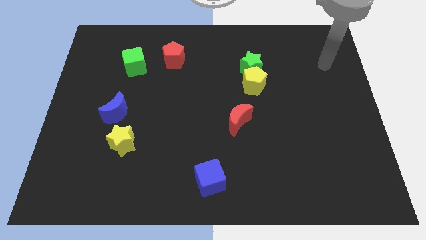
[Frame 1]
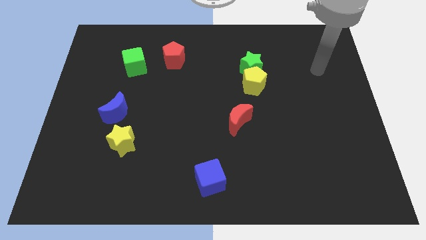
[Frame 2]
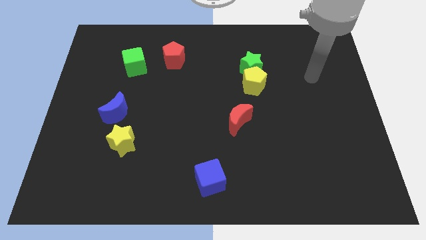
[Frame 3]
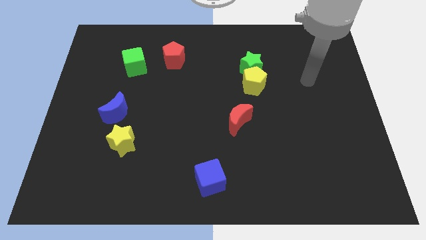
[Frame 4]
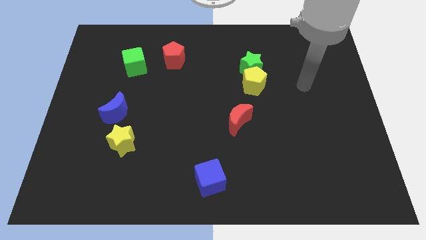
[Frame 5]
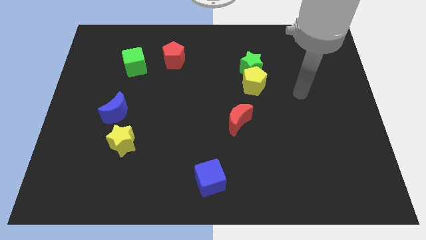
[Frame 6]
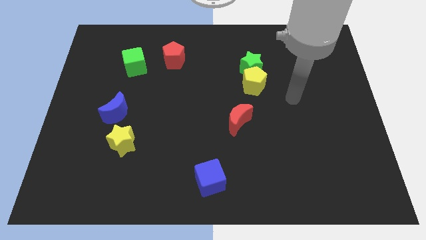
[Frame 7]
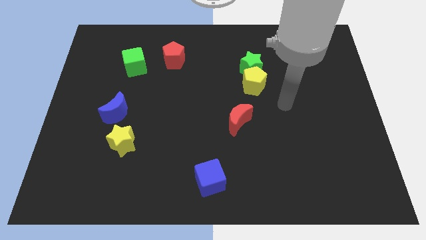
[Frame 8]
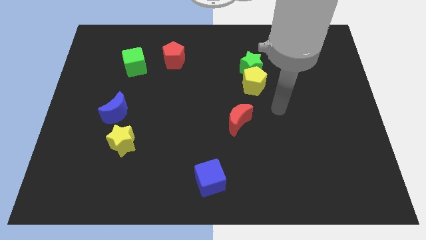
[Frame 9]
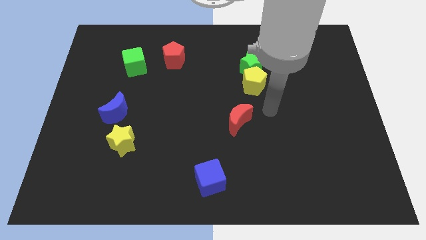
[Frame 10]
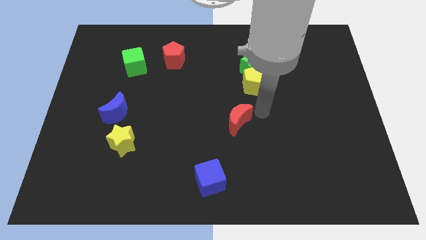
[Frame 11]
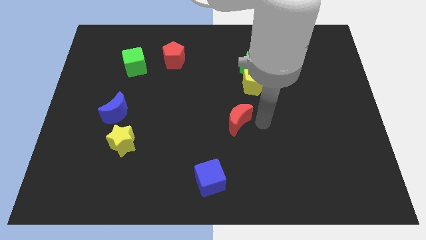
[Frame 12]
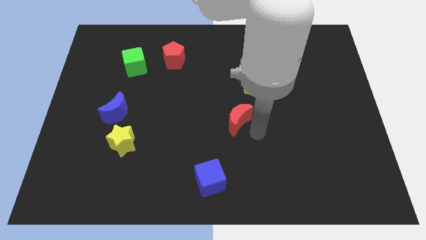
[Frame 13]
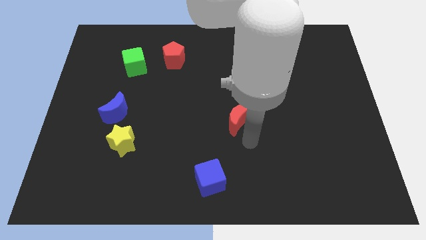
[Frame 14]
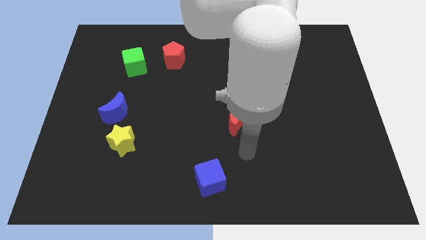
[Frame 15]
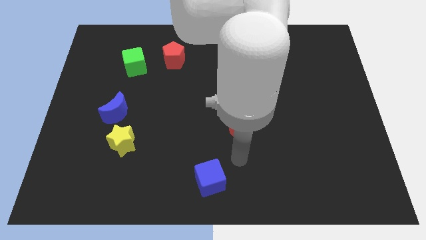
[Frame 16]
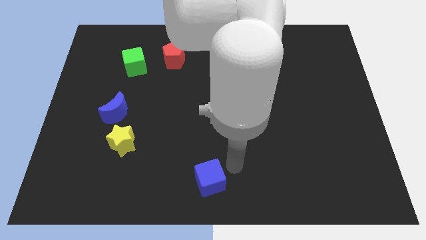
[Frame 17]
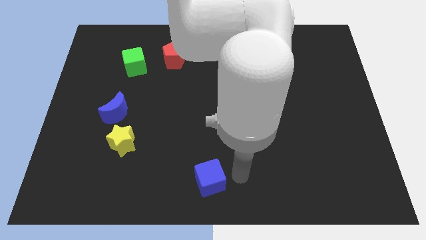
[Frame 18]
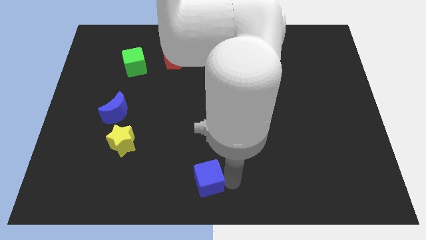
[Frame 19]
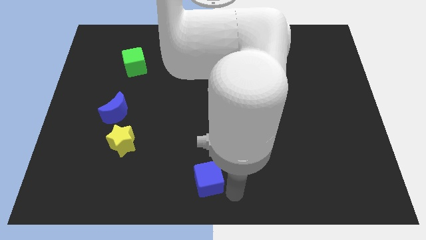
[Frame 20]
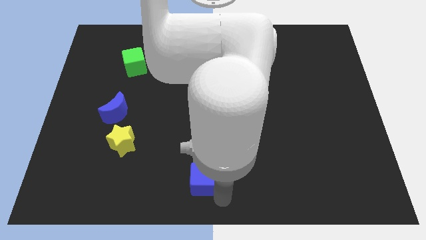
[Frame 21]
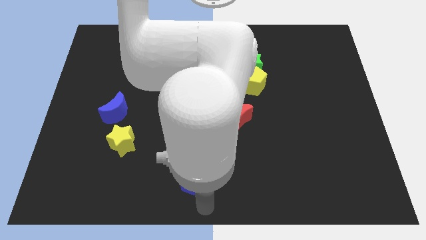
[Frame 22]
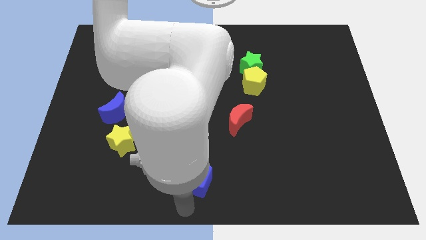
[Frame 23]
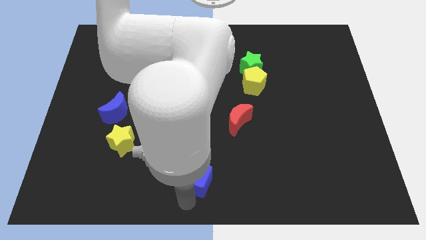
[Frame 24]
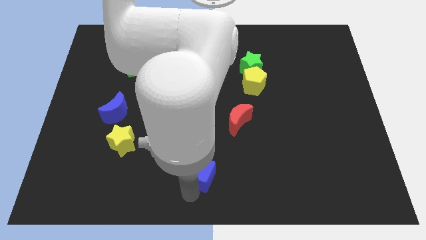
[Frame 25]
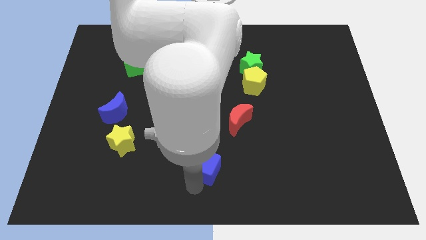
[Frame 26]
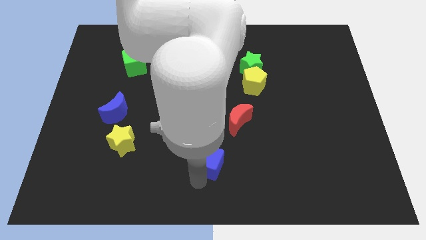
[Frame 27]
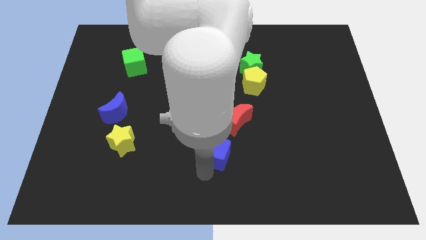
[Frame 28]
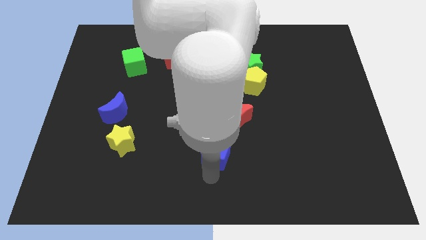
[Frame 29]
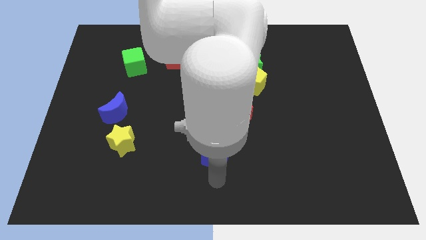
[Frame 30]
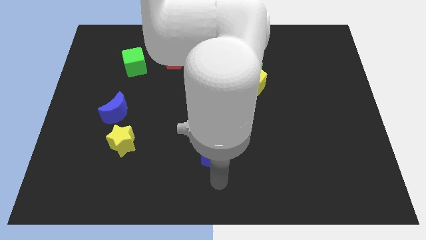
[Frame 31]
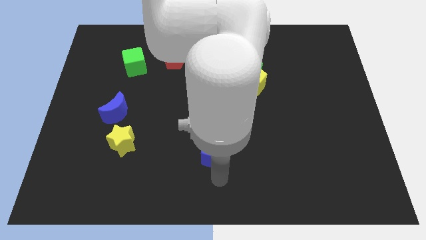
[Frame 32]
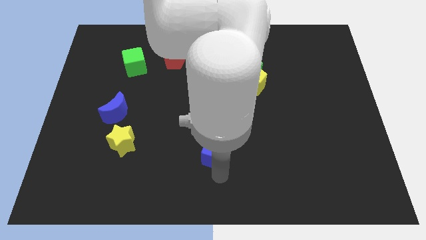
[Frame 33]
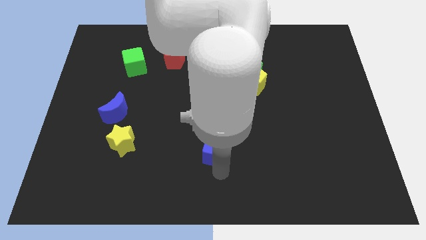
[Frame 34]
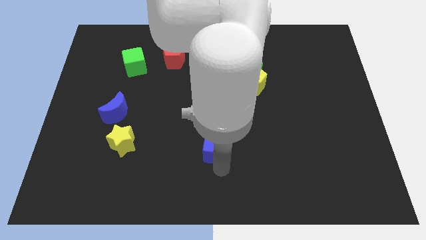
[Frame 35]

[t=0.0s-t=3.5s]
push the blue cube a bit up

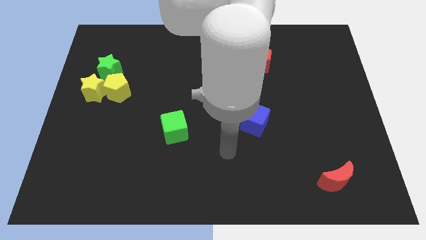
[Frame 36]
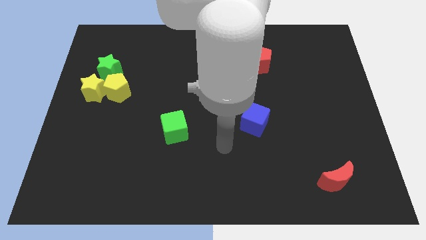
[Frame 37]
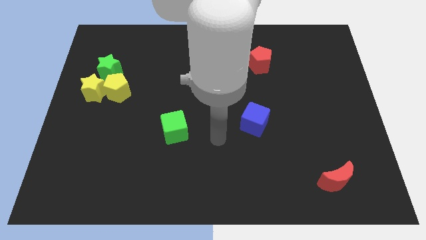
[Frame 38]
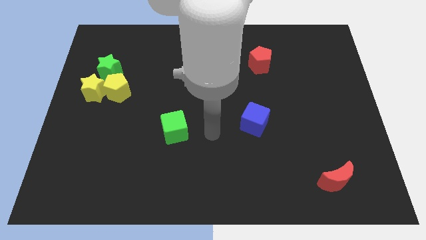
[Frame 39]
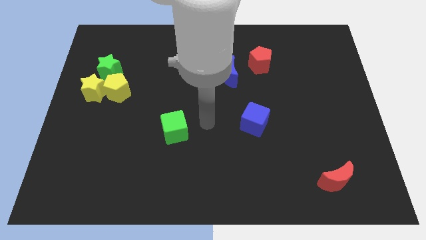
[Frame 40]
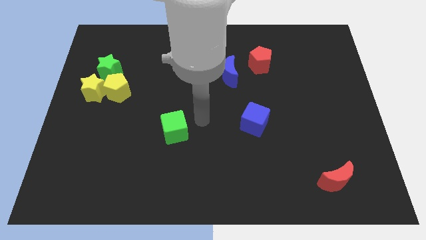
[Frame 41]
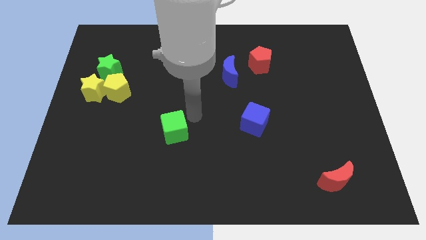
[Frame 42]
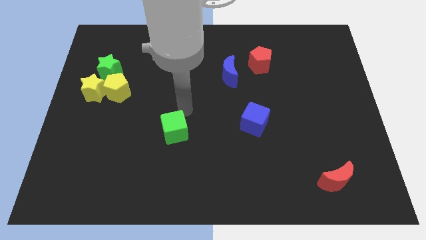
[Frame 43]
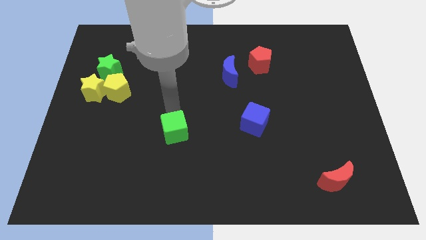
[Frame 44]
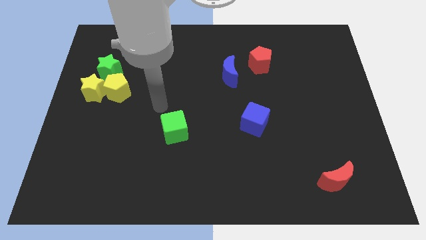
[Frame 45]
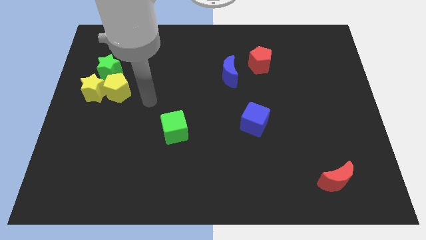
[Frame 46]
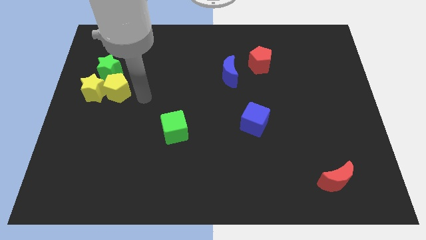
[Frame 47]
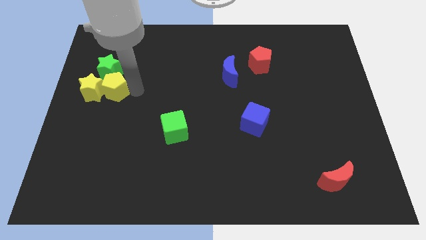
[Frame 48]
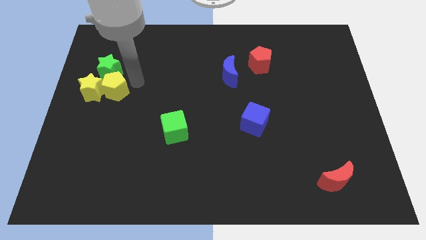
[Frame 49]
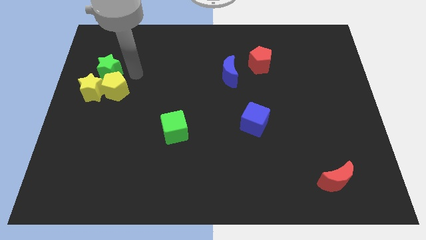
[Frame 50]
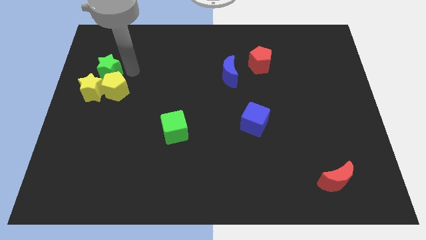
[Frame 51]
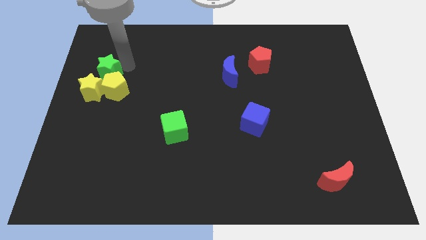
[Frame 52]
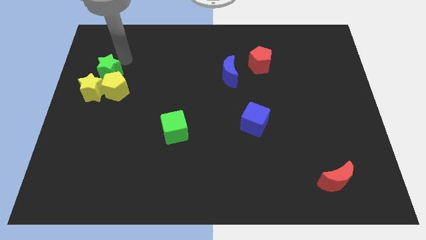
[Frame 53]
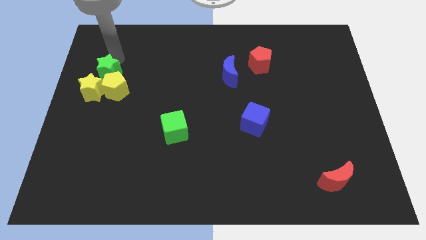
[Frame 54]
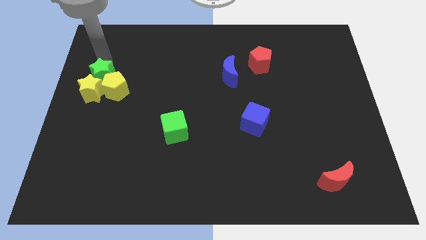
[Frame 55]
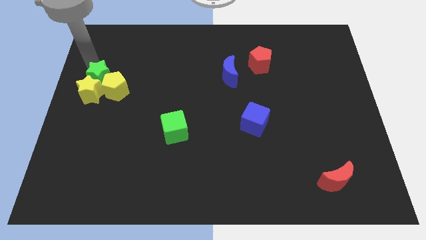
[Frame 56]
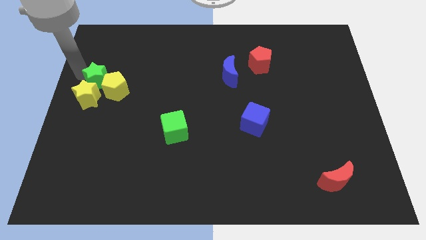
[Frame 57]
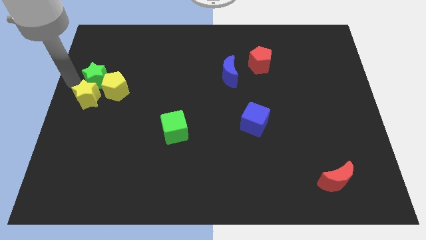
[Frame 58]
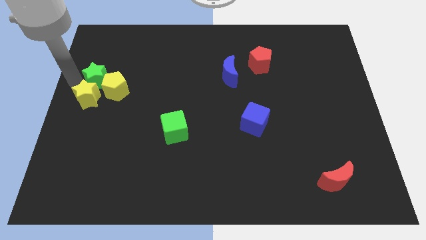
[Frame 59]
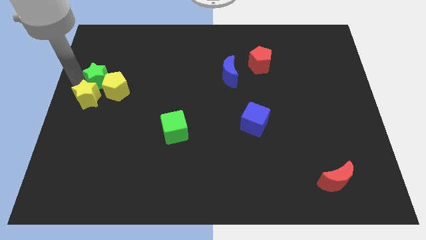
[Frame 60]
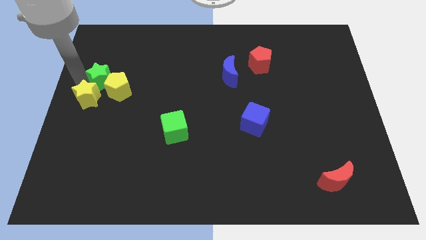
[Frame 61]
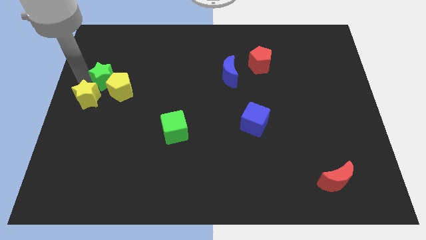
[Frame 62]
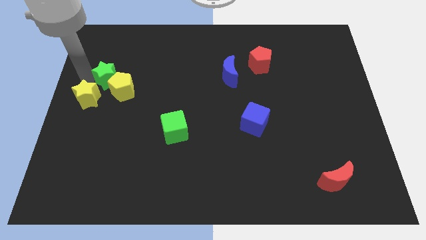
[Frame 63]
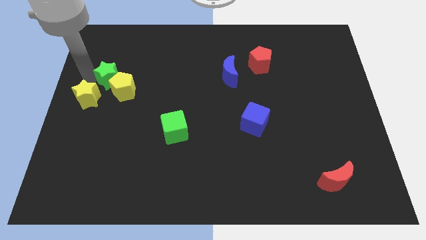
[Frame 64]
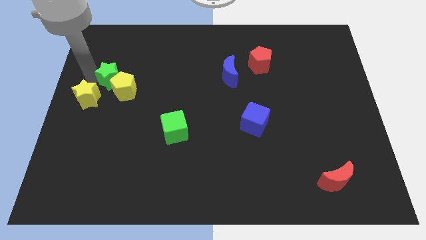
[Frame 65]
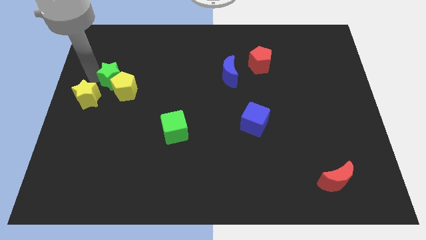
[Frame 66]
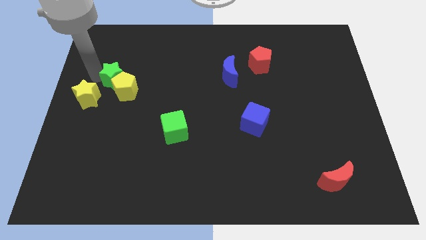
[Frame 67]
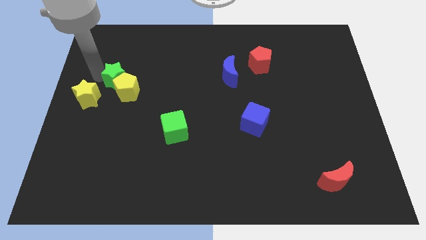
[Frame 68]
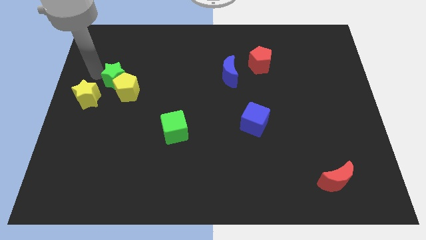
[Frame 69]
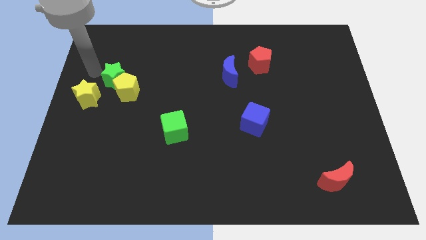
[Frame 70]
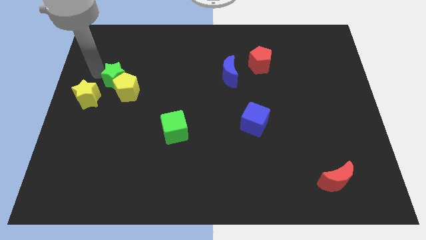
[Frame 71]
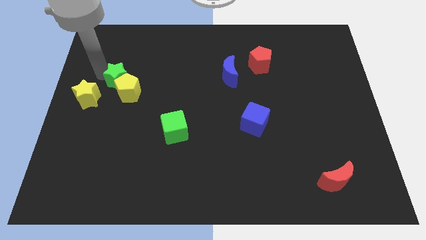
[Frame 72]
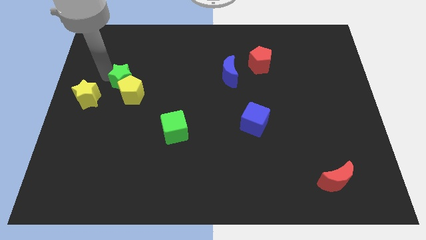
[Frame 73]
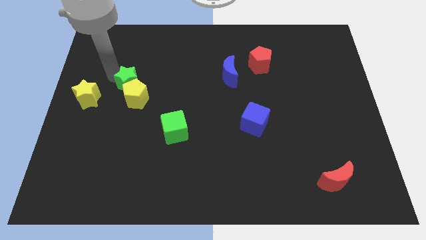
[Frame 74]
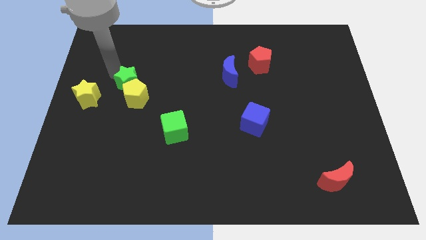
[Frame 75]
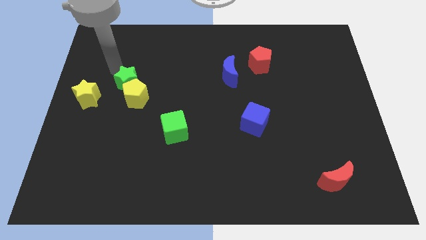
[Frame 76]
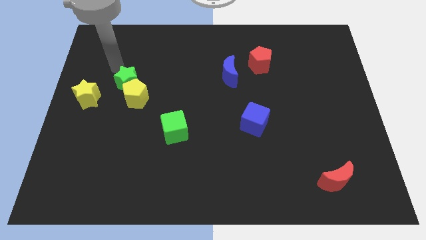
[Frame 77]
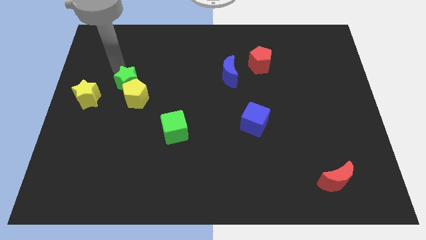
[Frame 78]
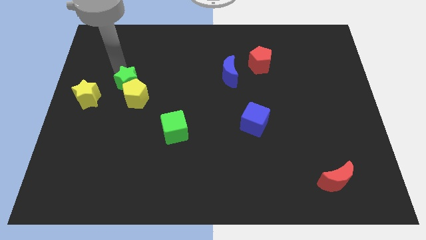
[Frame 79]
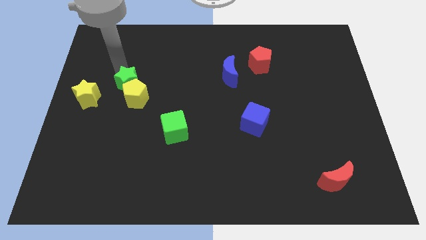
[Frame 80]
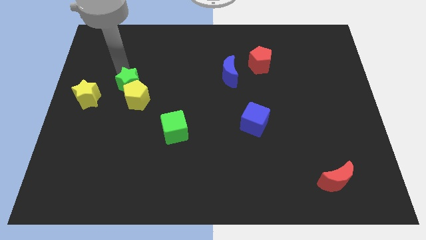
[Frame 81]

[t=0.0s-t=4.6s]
push the green star a little bit down and then right

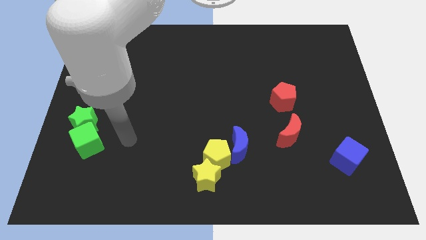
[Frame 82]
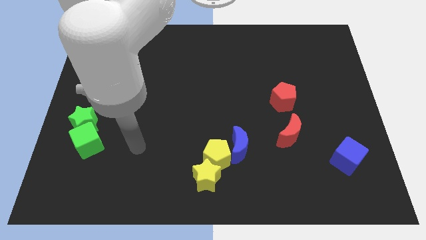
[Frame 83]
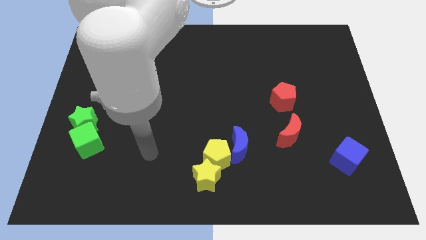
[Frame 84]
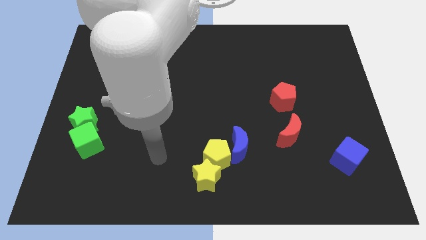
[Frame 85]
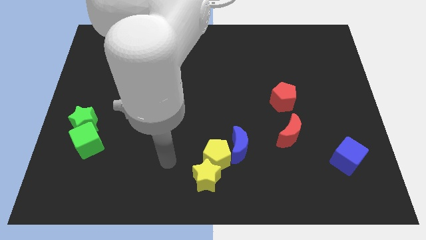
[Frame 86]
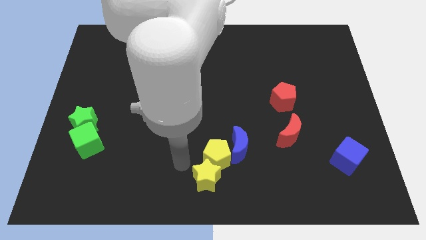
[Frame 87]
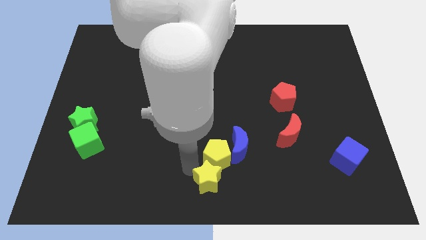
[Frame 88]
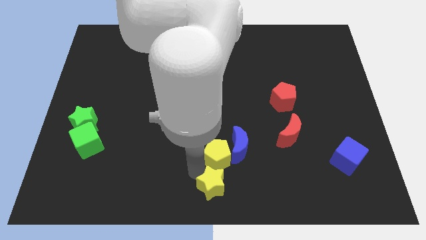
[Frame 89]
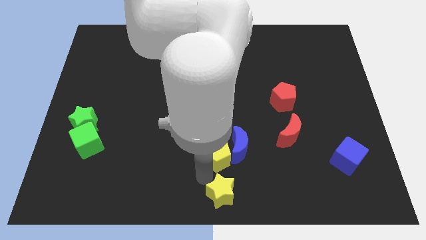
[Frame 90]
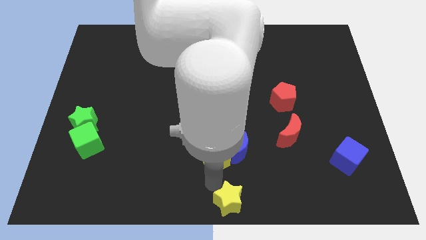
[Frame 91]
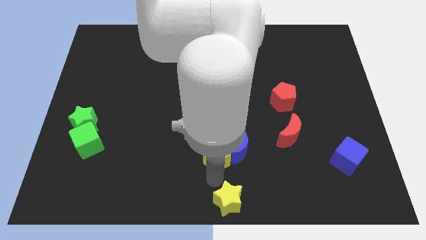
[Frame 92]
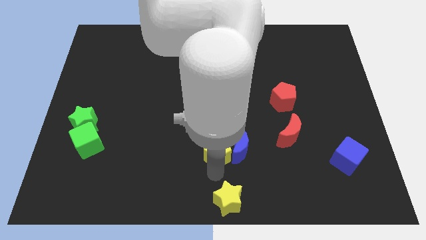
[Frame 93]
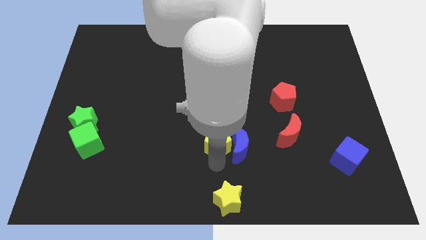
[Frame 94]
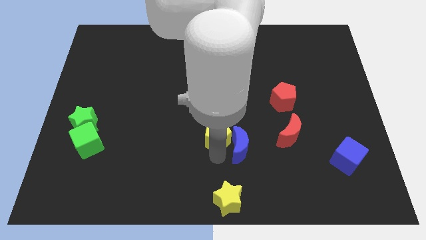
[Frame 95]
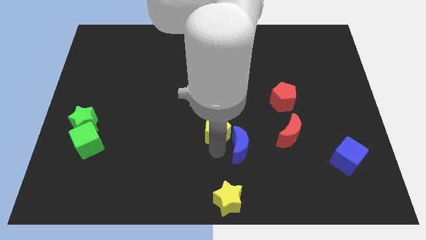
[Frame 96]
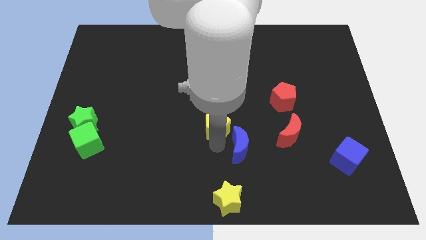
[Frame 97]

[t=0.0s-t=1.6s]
slightly push the yellow pentagon upwards
